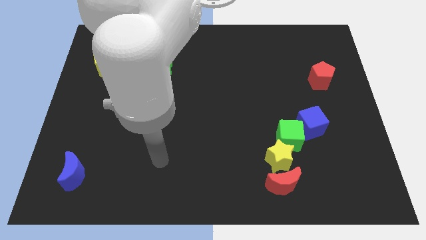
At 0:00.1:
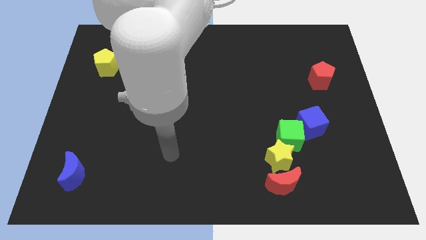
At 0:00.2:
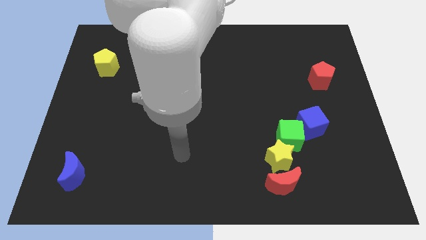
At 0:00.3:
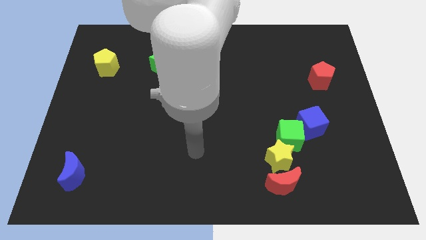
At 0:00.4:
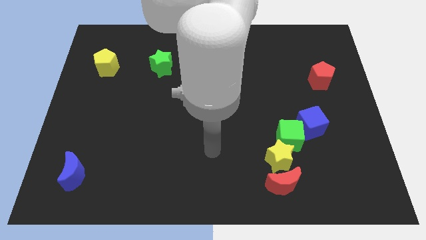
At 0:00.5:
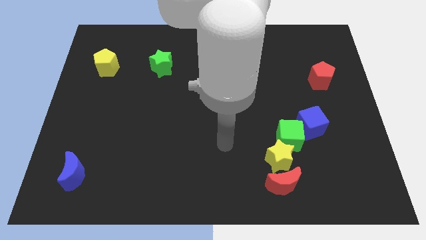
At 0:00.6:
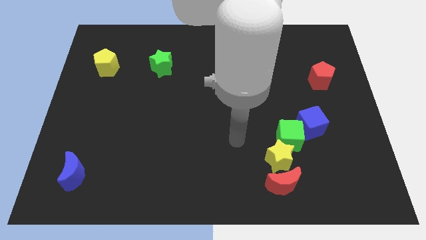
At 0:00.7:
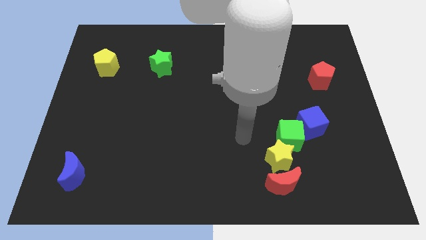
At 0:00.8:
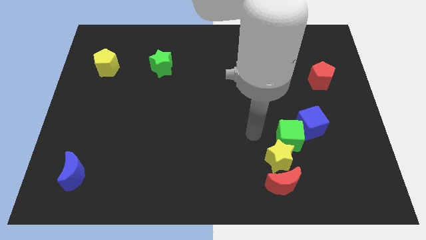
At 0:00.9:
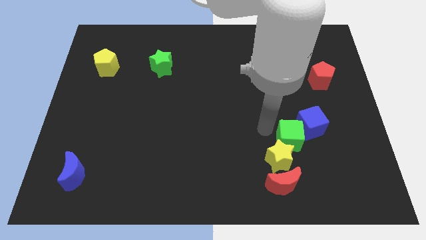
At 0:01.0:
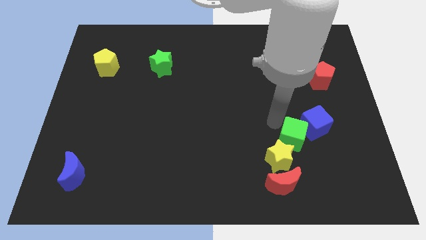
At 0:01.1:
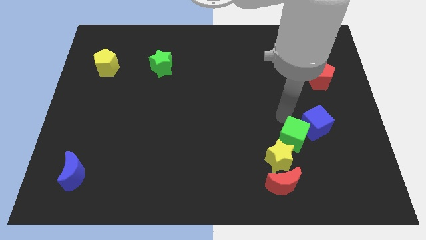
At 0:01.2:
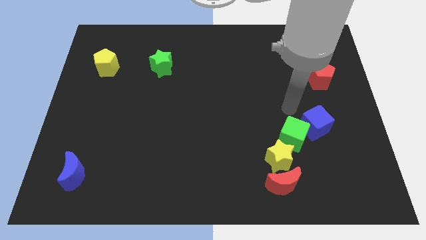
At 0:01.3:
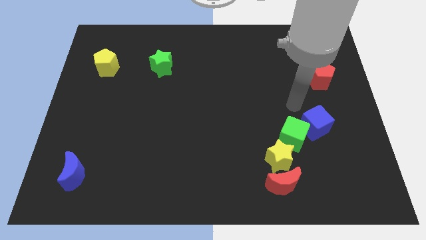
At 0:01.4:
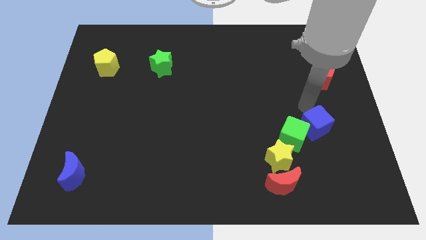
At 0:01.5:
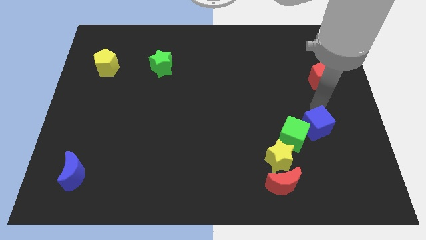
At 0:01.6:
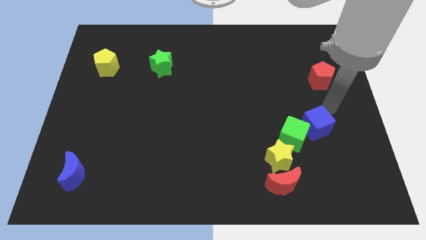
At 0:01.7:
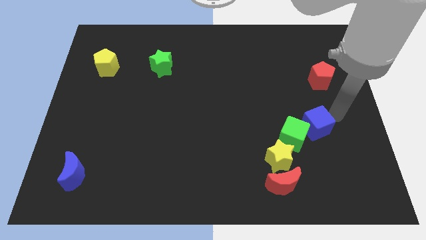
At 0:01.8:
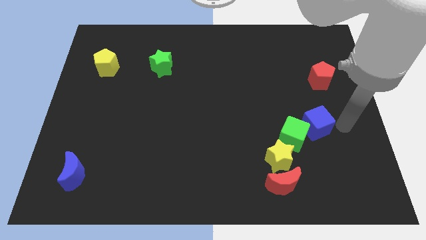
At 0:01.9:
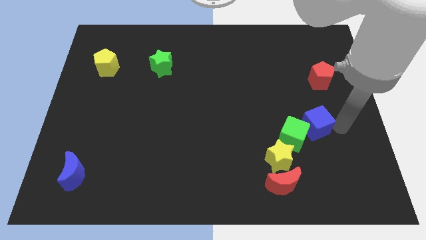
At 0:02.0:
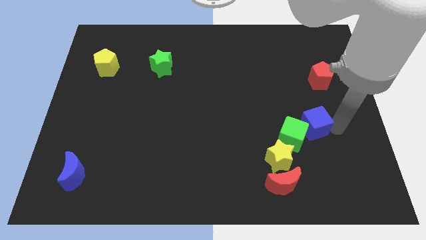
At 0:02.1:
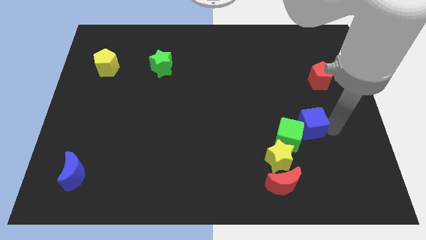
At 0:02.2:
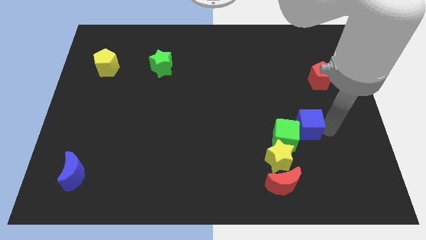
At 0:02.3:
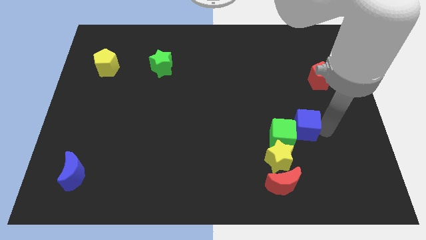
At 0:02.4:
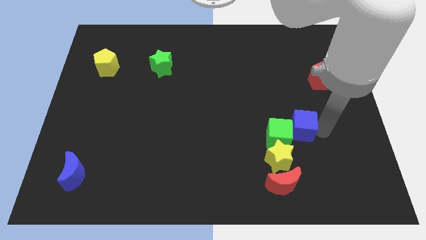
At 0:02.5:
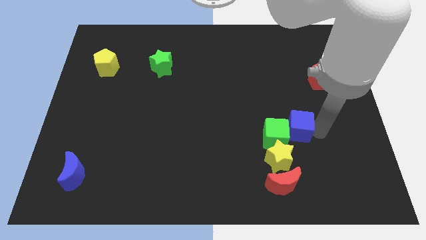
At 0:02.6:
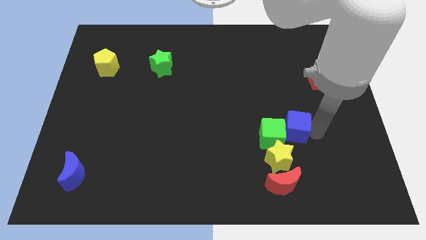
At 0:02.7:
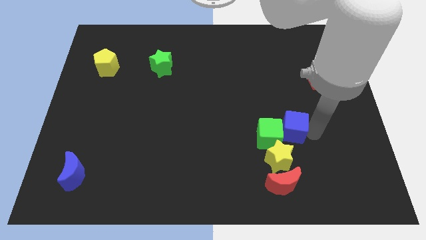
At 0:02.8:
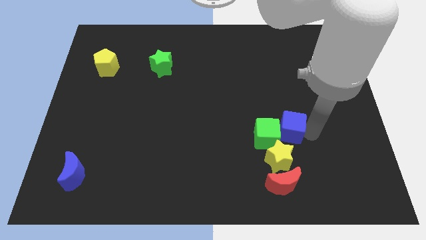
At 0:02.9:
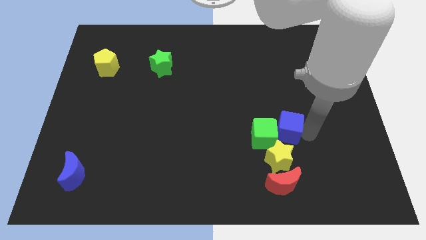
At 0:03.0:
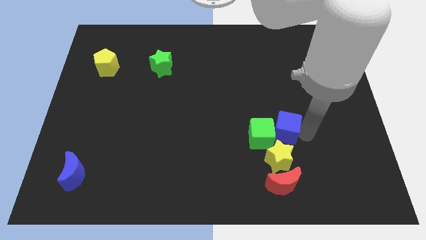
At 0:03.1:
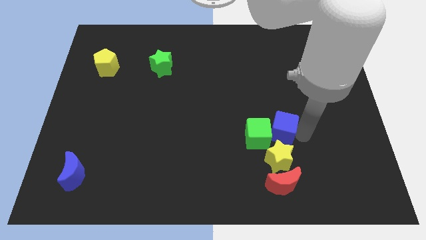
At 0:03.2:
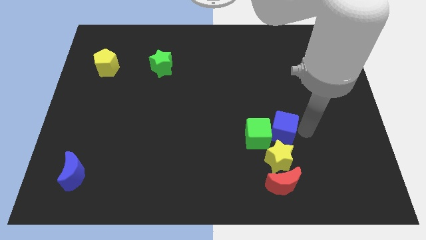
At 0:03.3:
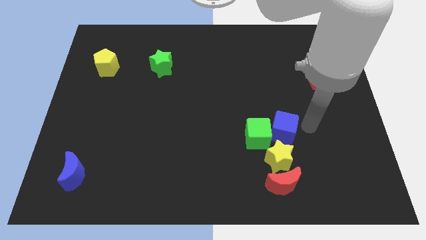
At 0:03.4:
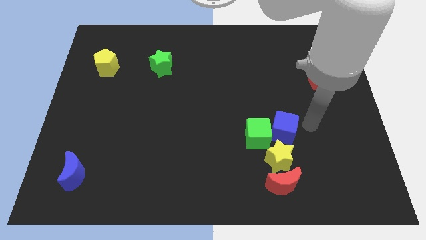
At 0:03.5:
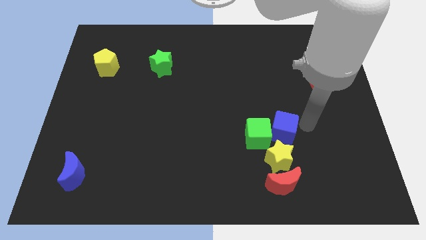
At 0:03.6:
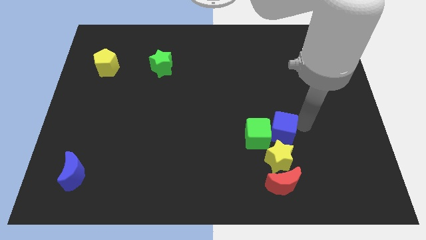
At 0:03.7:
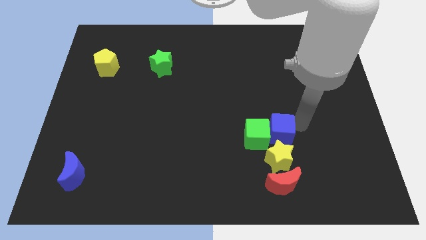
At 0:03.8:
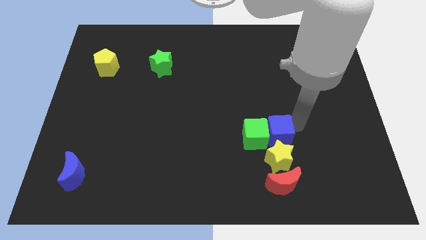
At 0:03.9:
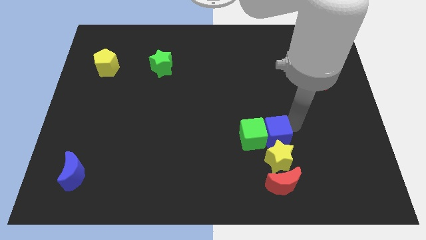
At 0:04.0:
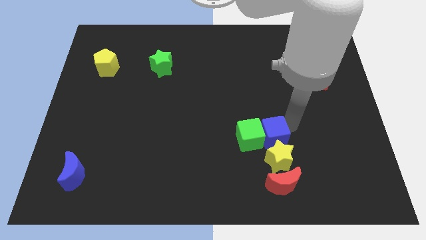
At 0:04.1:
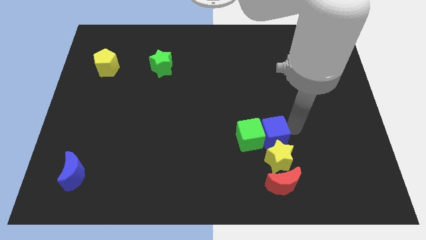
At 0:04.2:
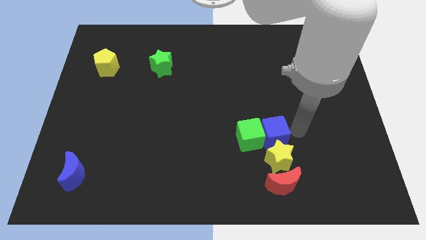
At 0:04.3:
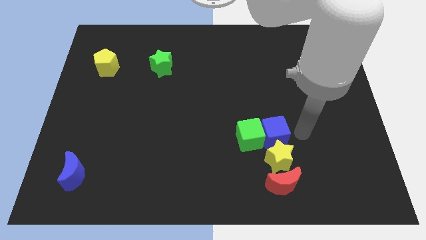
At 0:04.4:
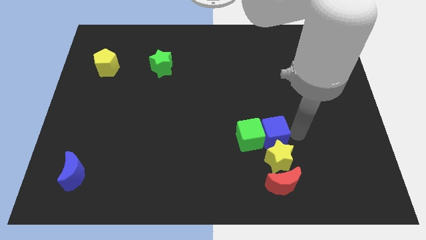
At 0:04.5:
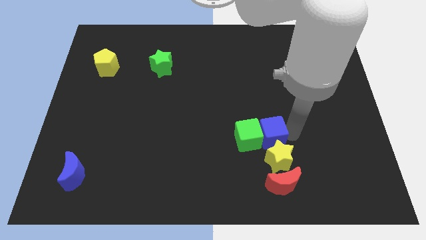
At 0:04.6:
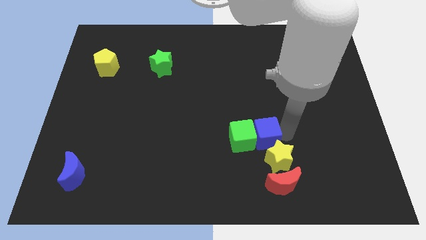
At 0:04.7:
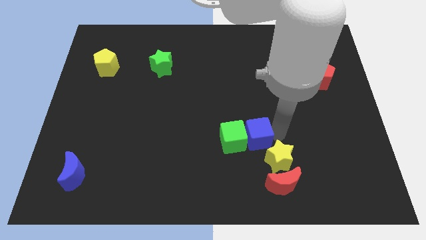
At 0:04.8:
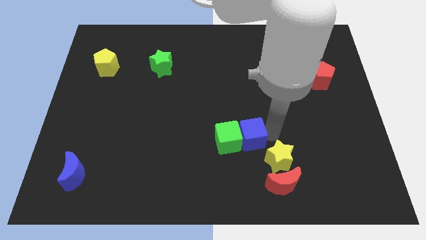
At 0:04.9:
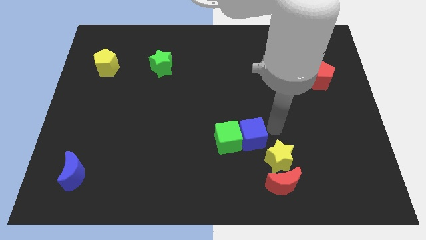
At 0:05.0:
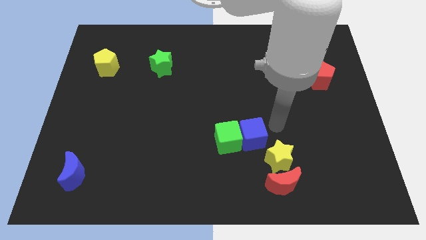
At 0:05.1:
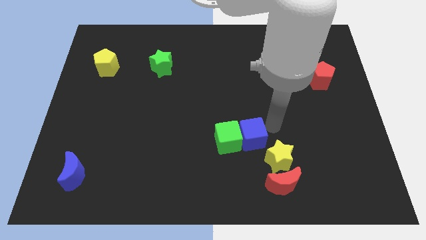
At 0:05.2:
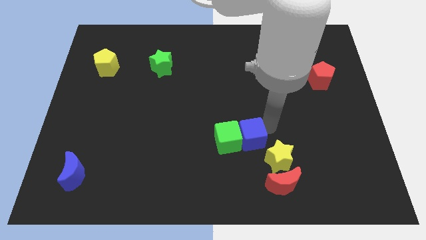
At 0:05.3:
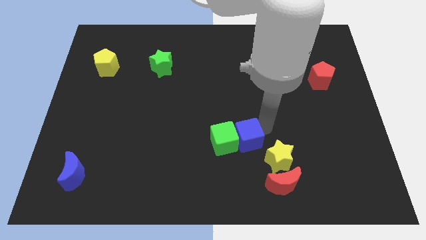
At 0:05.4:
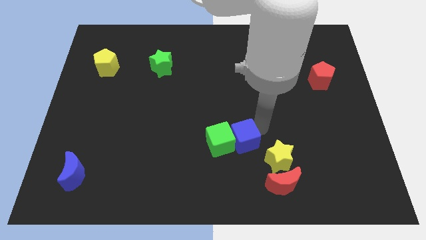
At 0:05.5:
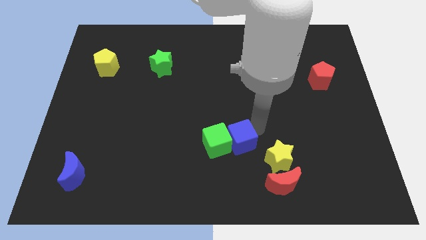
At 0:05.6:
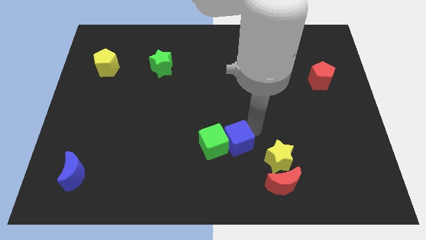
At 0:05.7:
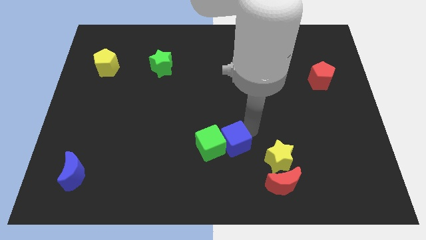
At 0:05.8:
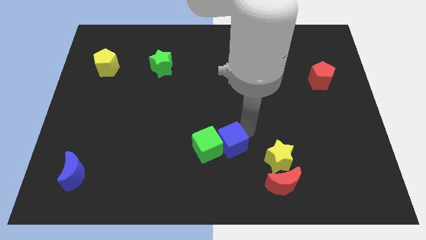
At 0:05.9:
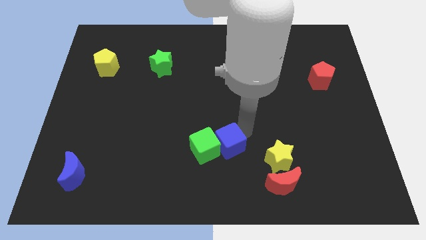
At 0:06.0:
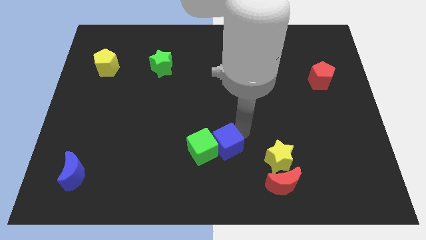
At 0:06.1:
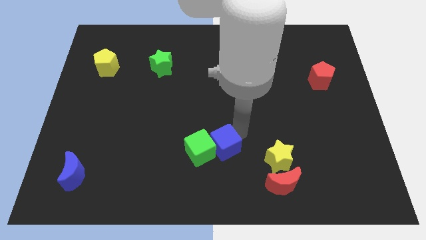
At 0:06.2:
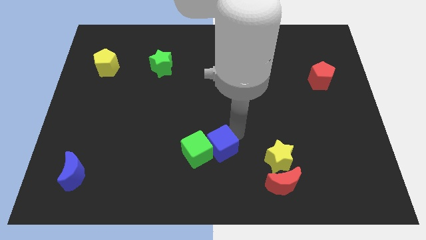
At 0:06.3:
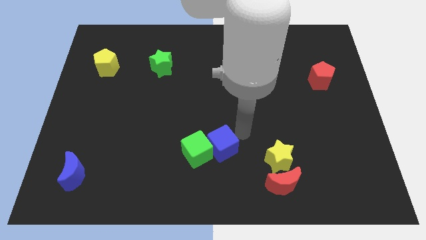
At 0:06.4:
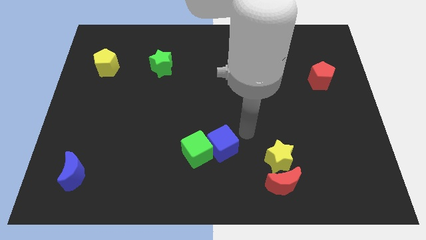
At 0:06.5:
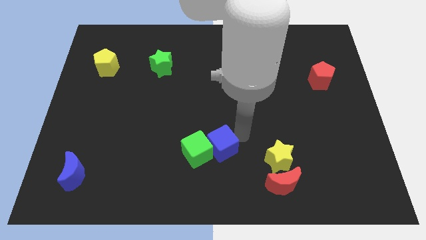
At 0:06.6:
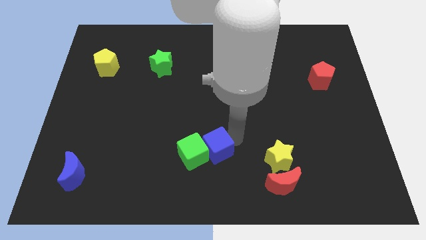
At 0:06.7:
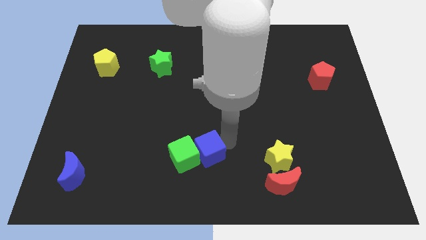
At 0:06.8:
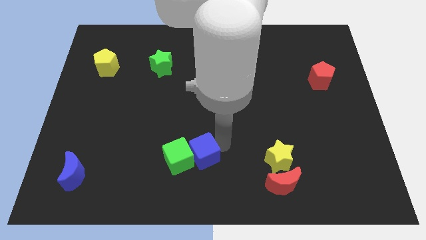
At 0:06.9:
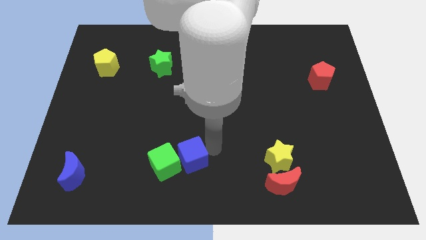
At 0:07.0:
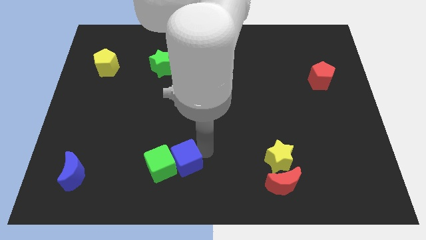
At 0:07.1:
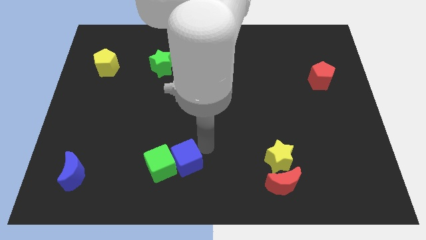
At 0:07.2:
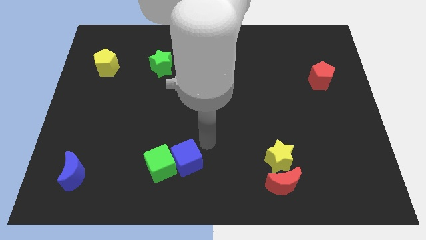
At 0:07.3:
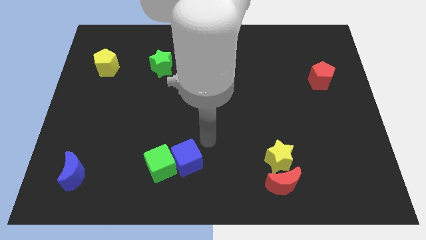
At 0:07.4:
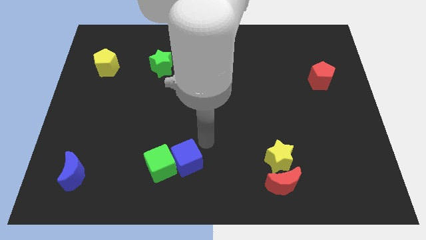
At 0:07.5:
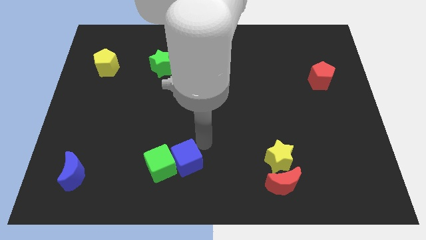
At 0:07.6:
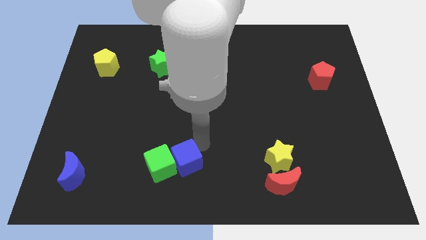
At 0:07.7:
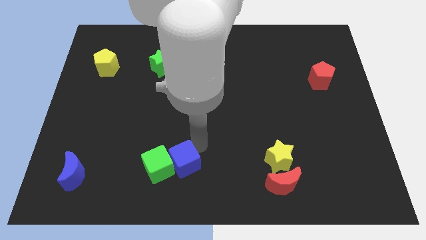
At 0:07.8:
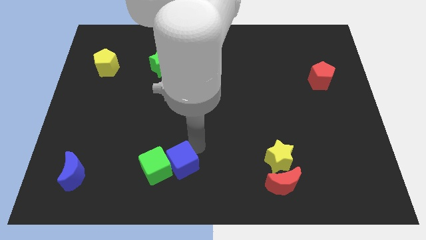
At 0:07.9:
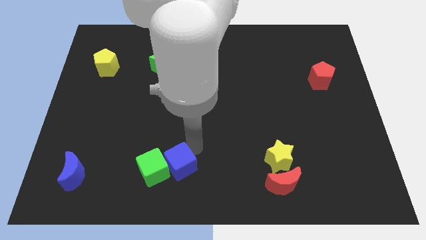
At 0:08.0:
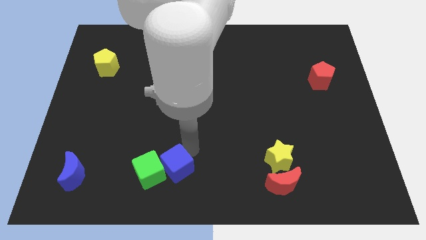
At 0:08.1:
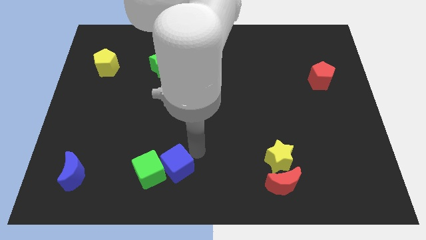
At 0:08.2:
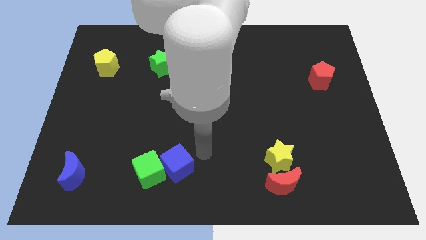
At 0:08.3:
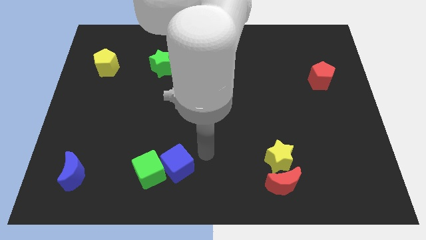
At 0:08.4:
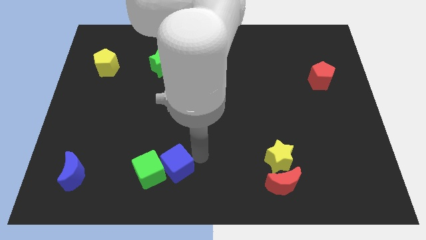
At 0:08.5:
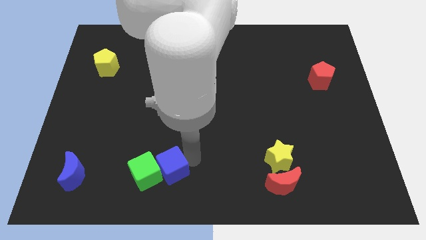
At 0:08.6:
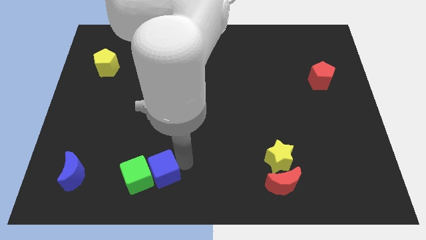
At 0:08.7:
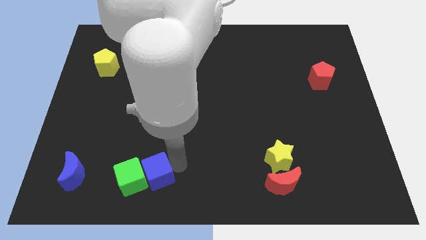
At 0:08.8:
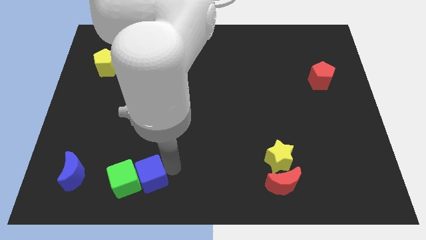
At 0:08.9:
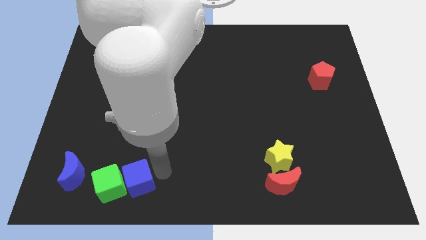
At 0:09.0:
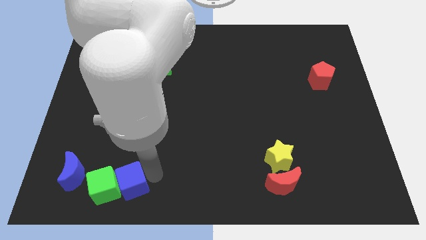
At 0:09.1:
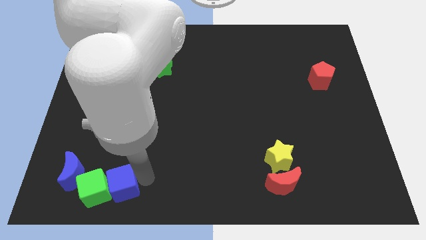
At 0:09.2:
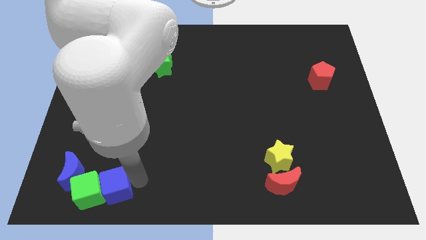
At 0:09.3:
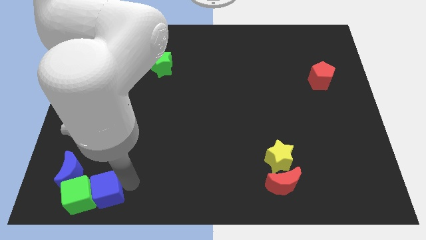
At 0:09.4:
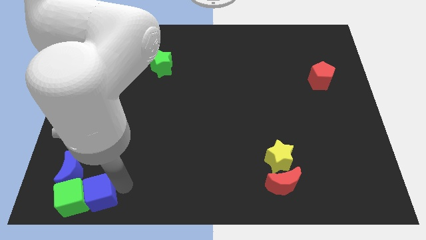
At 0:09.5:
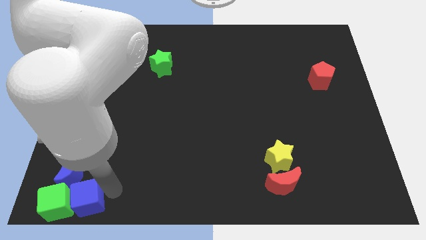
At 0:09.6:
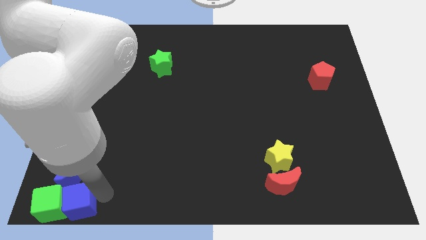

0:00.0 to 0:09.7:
push the blue cube to the bottom left of the board
